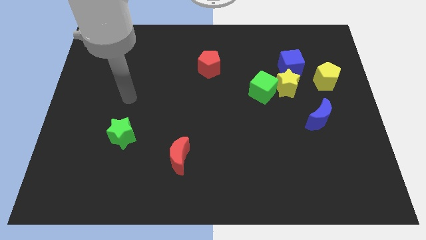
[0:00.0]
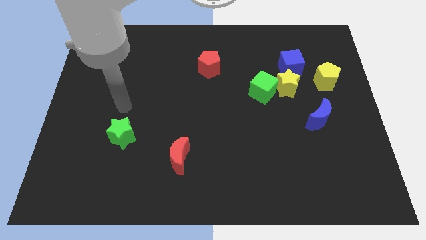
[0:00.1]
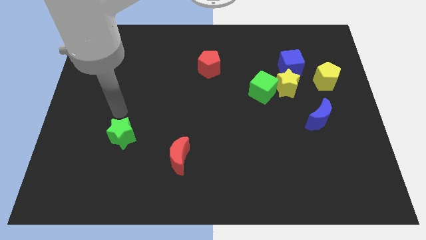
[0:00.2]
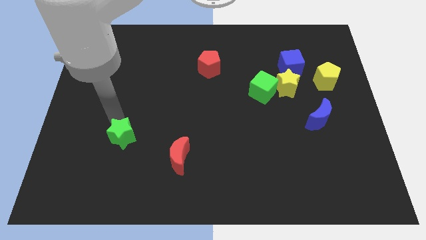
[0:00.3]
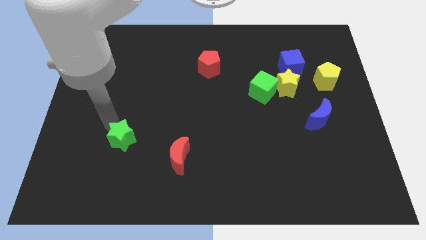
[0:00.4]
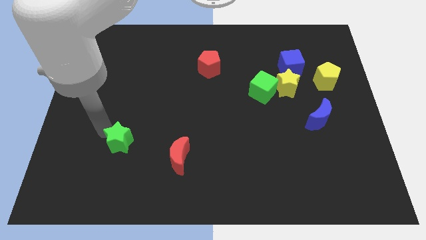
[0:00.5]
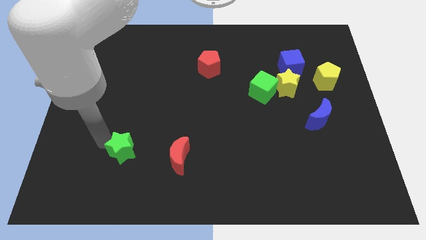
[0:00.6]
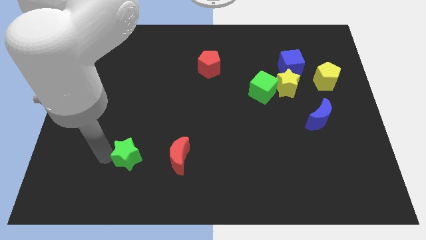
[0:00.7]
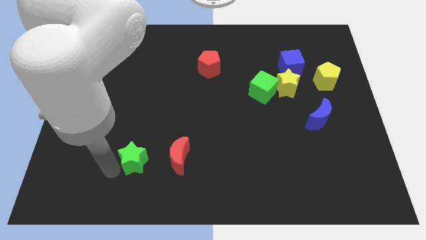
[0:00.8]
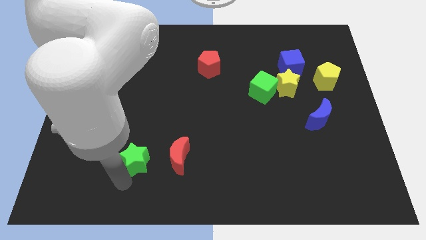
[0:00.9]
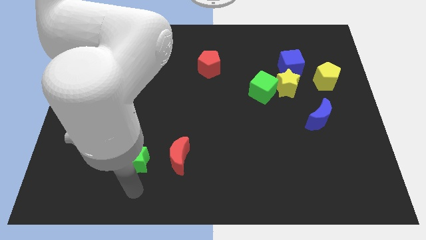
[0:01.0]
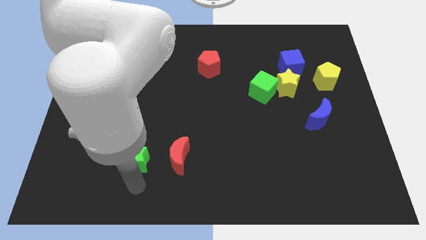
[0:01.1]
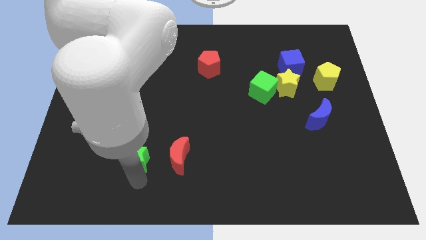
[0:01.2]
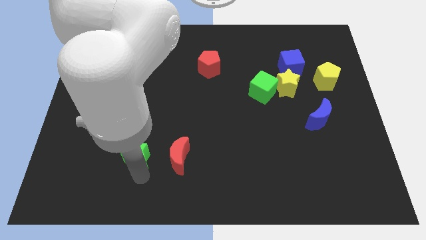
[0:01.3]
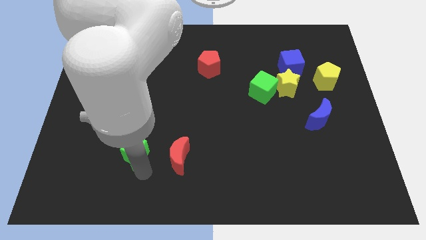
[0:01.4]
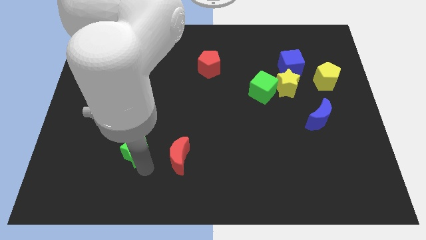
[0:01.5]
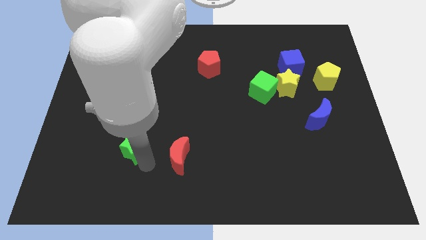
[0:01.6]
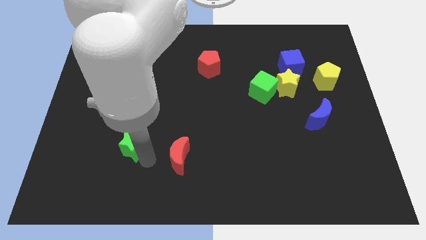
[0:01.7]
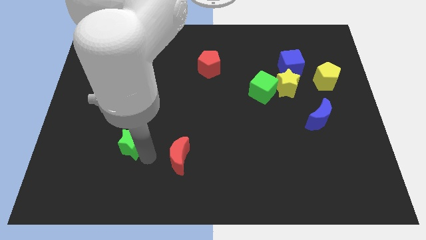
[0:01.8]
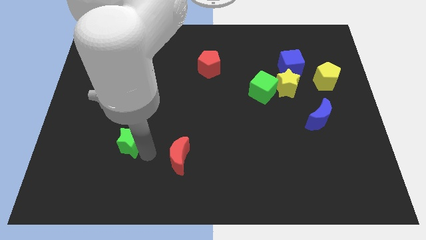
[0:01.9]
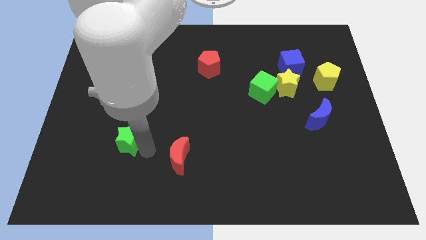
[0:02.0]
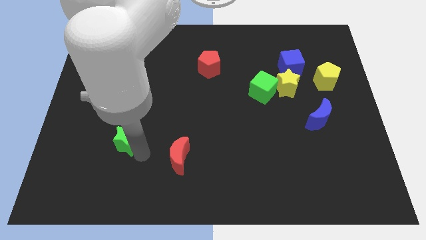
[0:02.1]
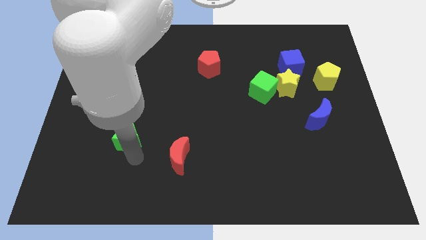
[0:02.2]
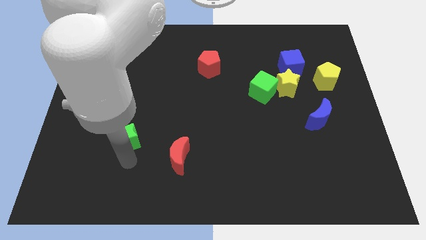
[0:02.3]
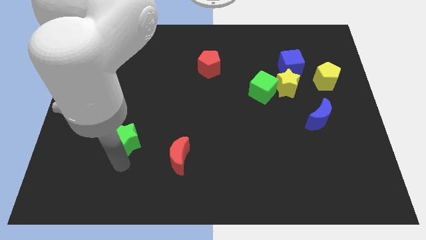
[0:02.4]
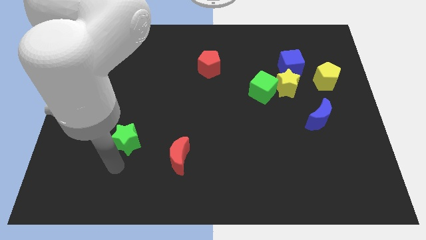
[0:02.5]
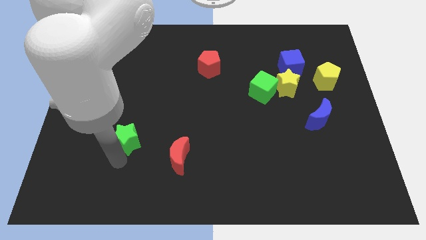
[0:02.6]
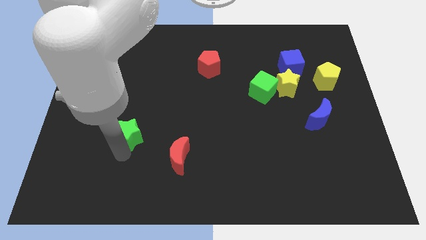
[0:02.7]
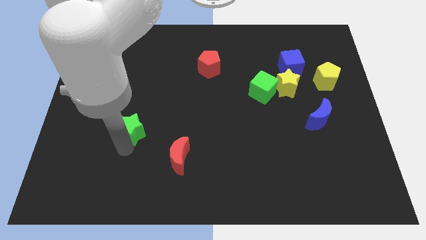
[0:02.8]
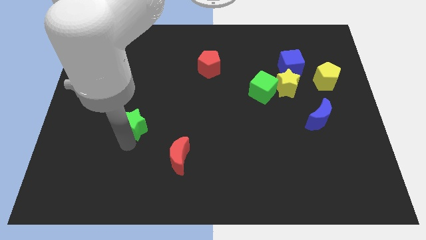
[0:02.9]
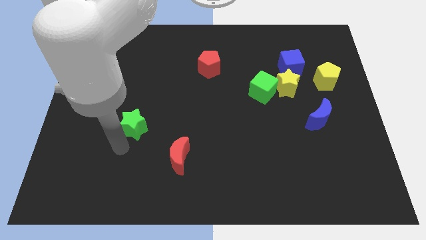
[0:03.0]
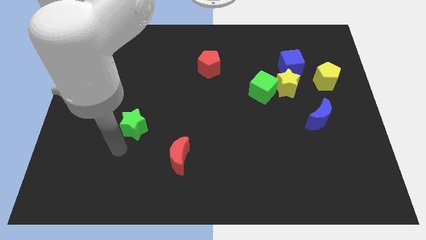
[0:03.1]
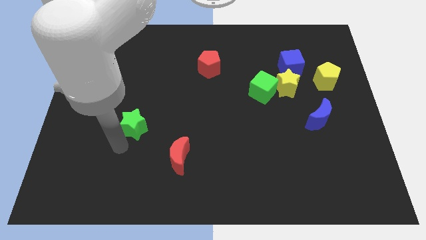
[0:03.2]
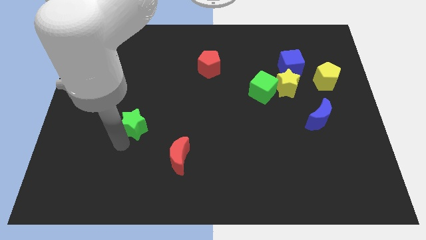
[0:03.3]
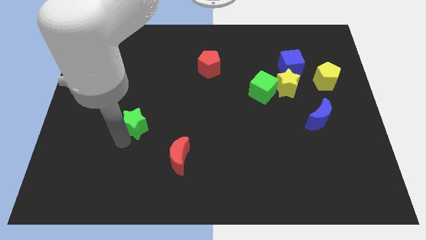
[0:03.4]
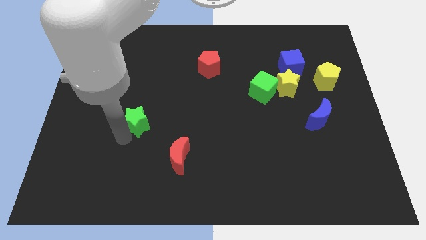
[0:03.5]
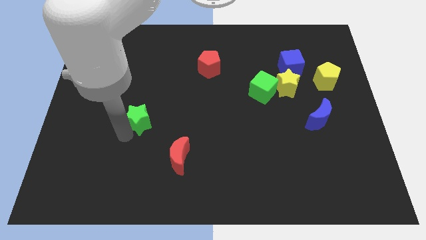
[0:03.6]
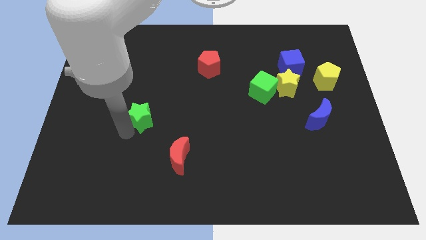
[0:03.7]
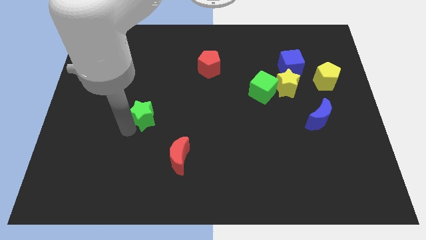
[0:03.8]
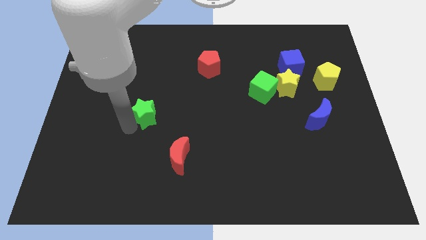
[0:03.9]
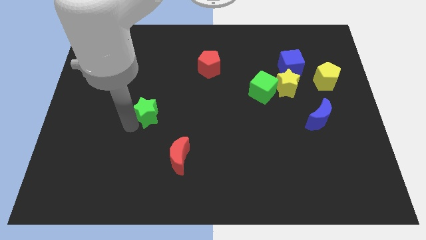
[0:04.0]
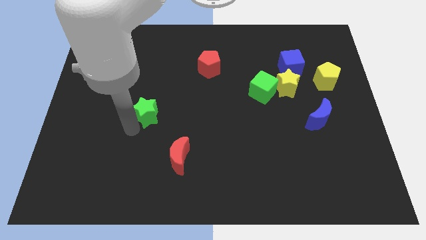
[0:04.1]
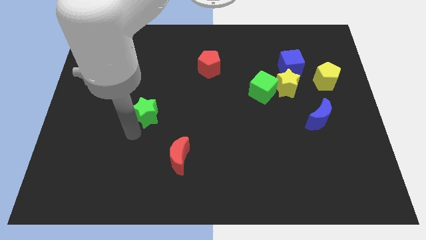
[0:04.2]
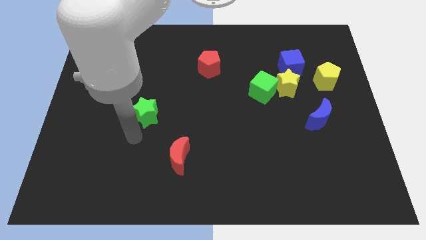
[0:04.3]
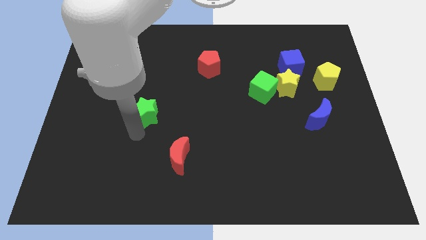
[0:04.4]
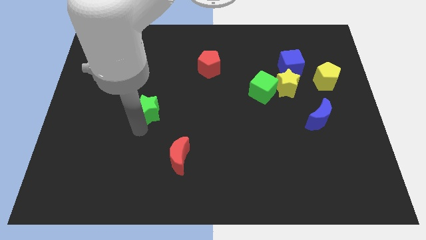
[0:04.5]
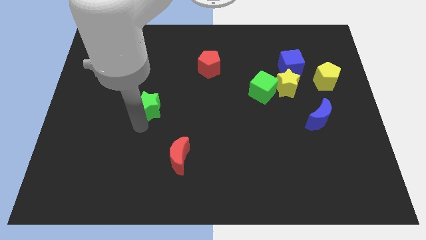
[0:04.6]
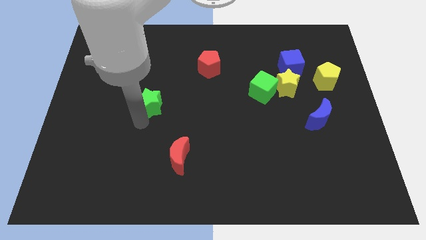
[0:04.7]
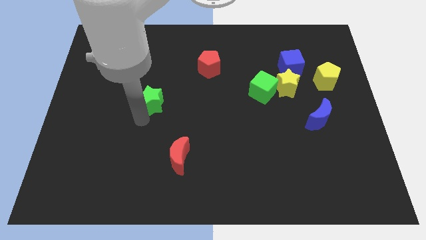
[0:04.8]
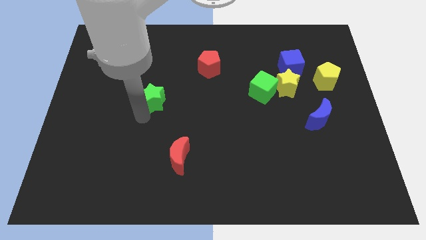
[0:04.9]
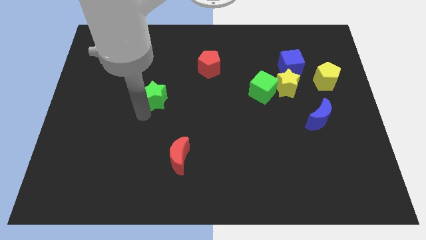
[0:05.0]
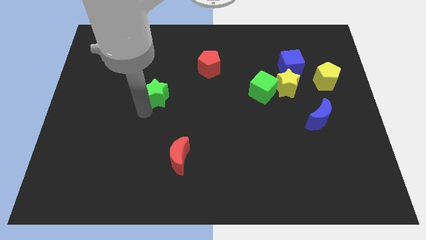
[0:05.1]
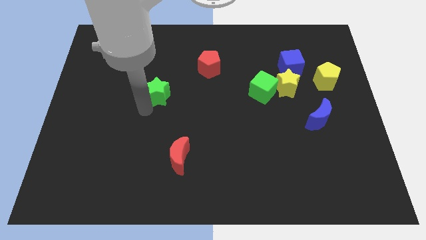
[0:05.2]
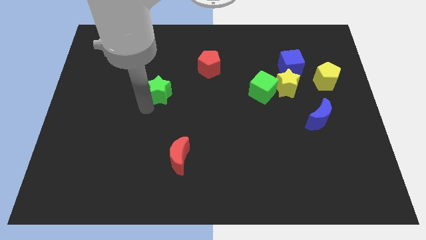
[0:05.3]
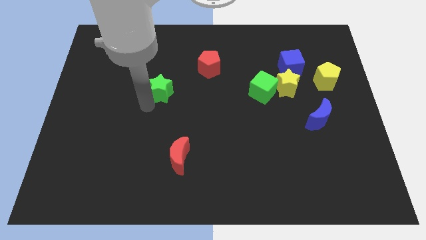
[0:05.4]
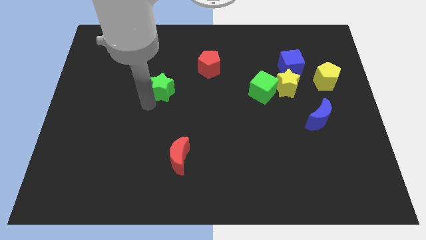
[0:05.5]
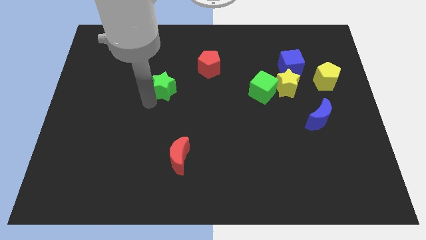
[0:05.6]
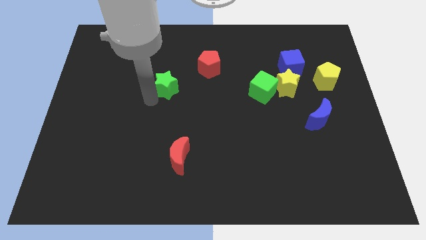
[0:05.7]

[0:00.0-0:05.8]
put the green star diagonally down and to the left of the red pentagon

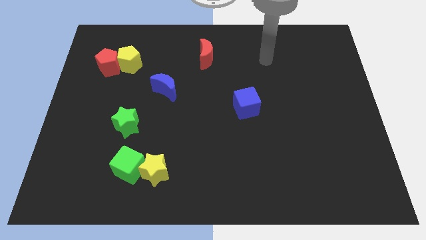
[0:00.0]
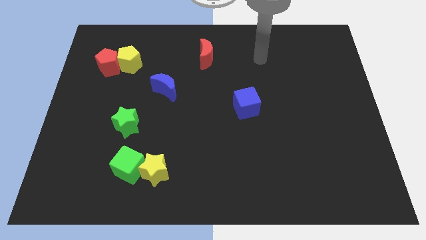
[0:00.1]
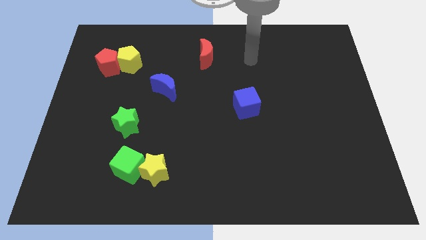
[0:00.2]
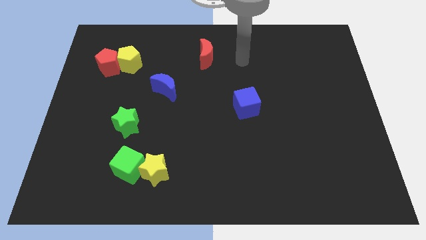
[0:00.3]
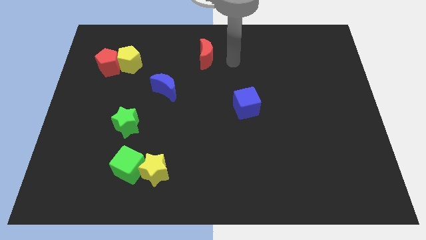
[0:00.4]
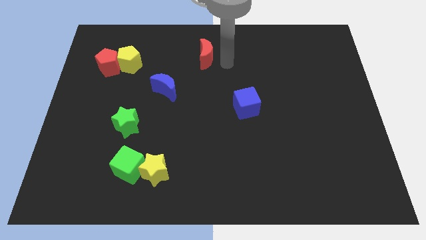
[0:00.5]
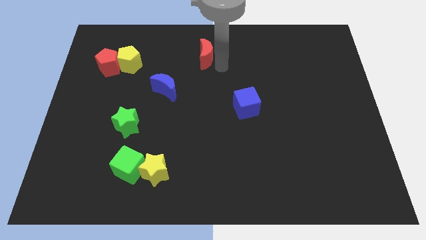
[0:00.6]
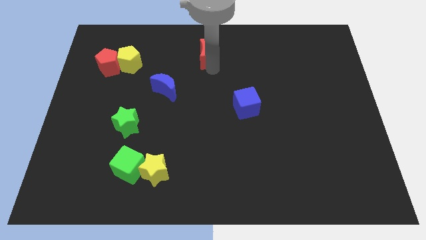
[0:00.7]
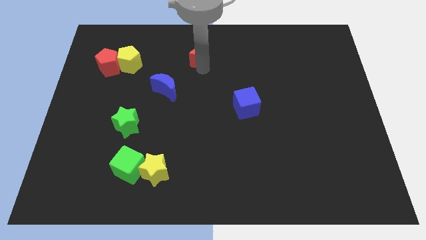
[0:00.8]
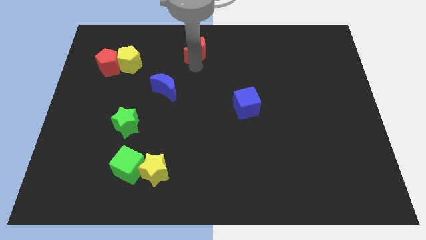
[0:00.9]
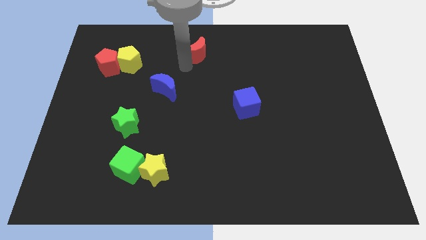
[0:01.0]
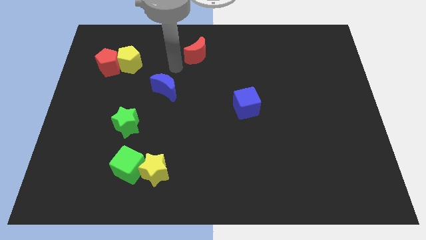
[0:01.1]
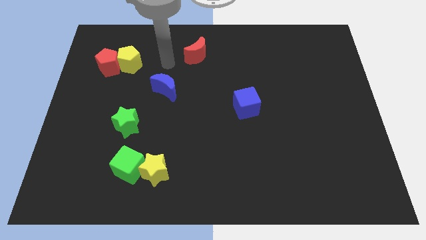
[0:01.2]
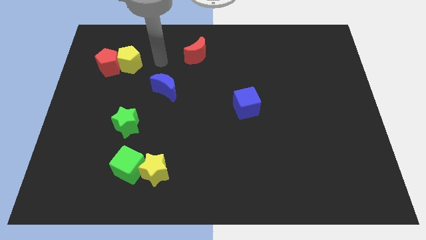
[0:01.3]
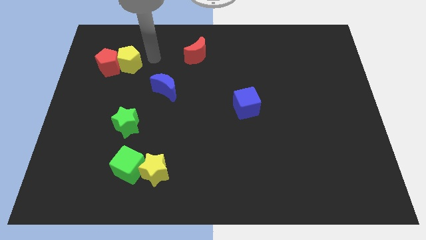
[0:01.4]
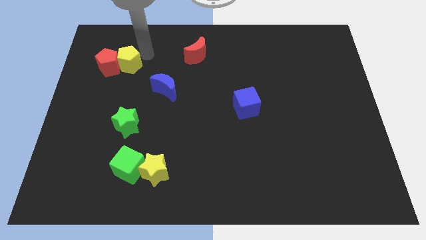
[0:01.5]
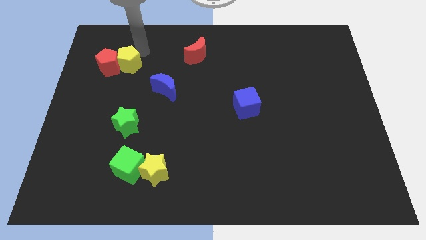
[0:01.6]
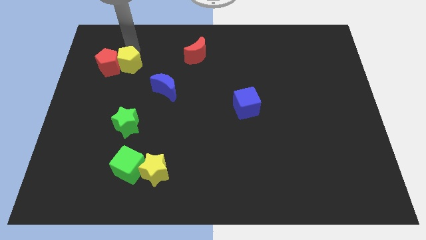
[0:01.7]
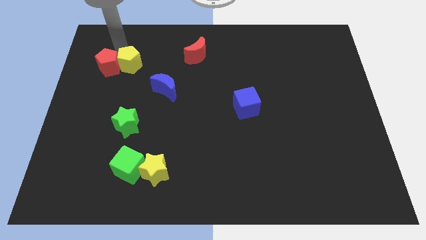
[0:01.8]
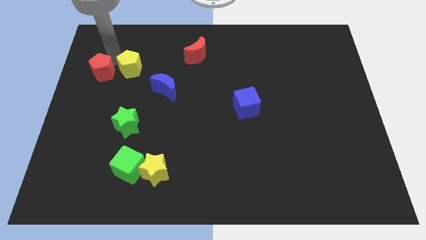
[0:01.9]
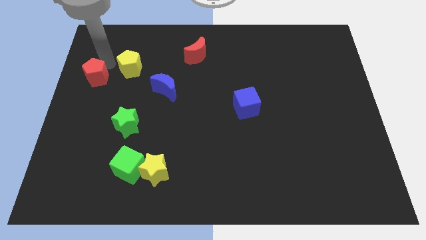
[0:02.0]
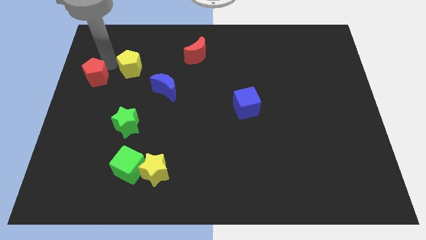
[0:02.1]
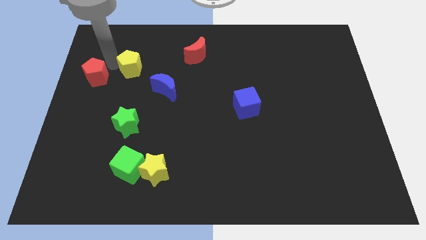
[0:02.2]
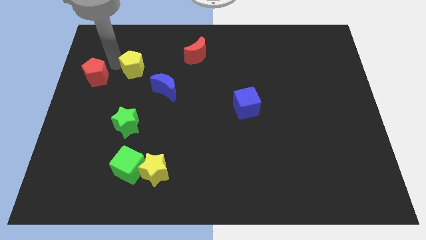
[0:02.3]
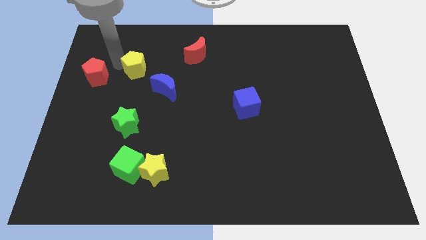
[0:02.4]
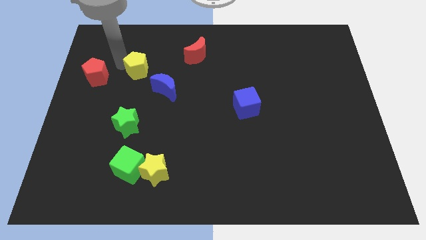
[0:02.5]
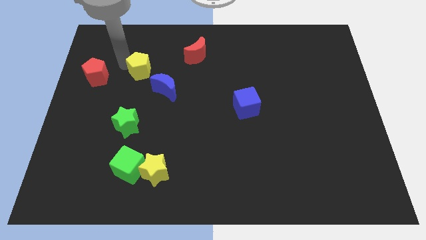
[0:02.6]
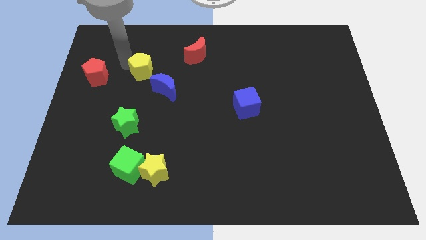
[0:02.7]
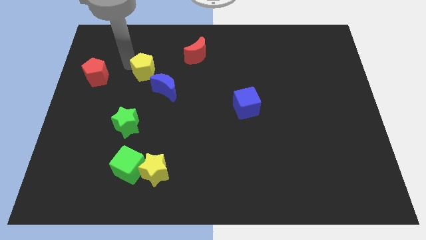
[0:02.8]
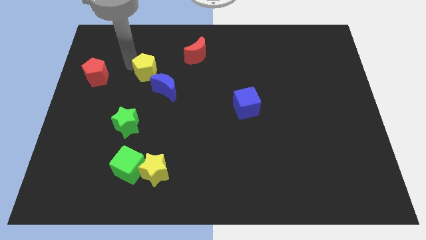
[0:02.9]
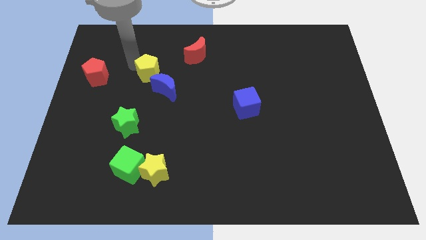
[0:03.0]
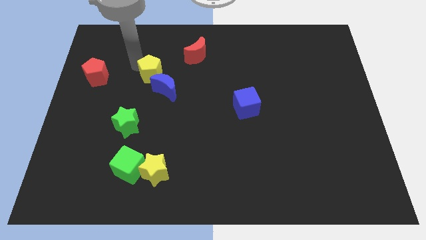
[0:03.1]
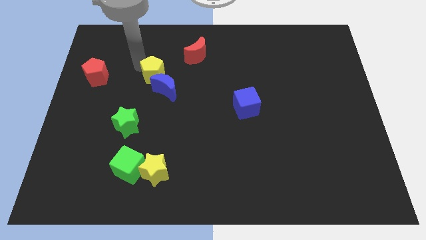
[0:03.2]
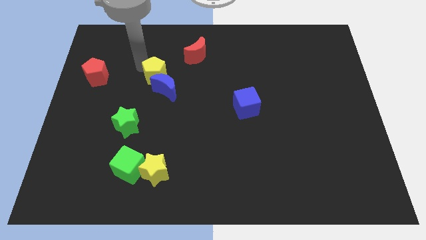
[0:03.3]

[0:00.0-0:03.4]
push the yellow pentagon to the bottom left of the red moon
